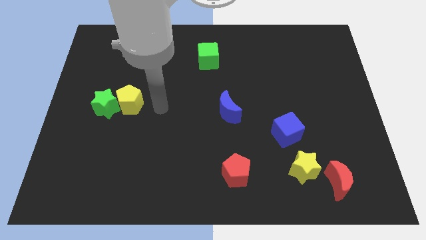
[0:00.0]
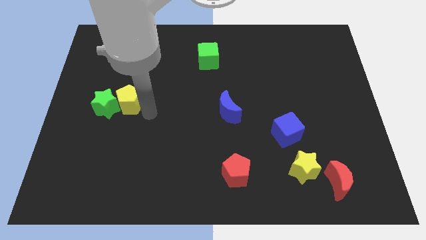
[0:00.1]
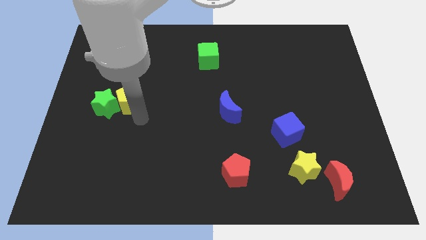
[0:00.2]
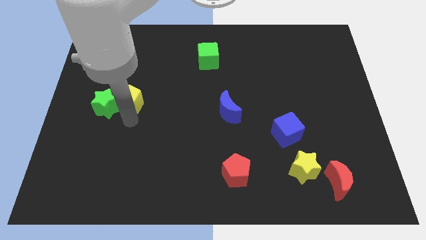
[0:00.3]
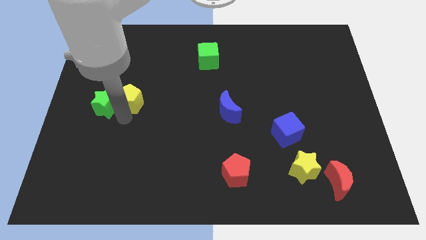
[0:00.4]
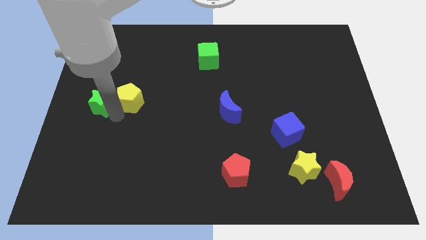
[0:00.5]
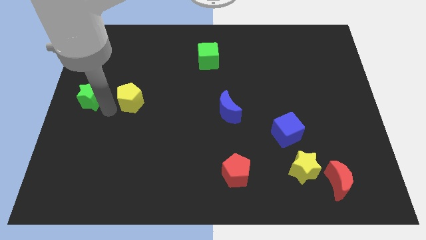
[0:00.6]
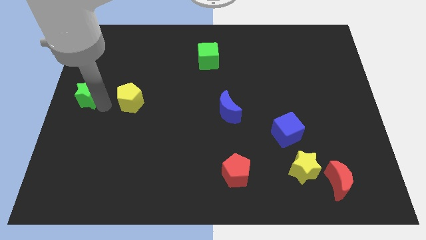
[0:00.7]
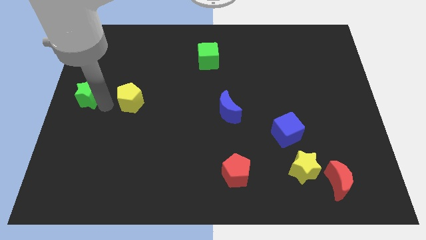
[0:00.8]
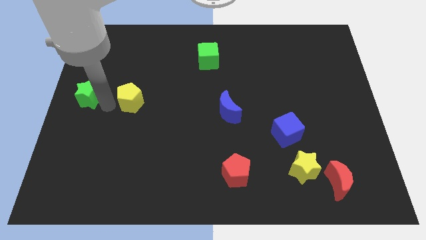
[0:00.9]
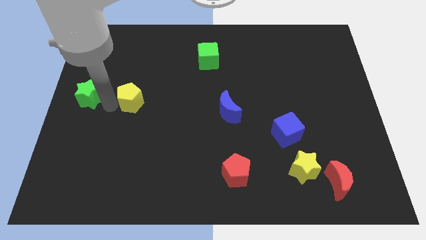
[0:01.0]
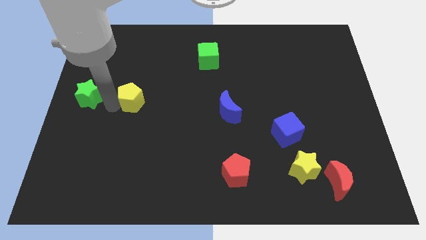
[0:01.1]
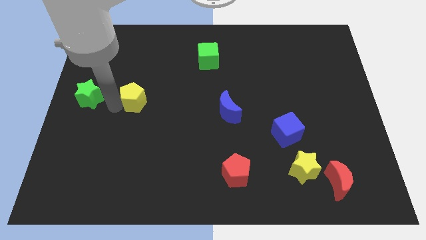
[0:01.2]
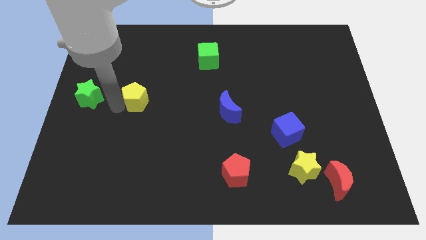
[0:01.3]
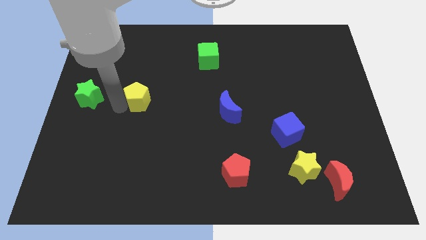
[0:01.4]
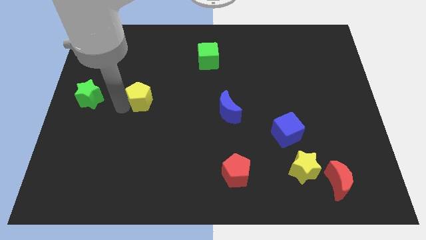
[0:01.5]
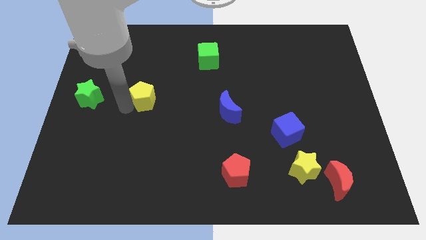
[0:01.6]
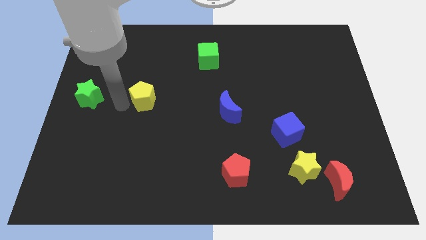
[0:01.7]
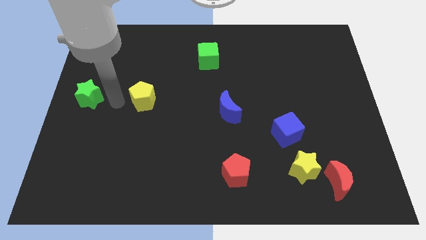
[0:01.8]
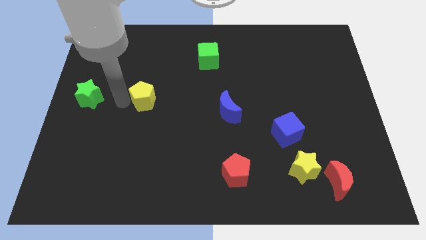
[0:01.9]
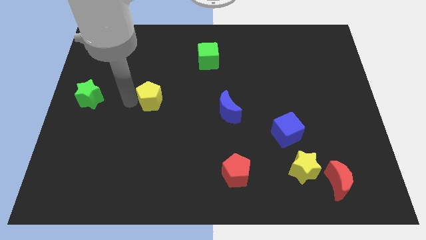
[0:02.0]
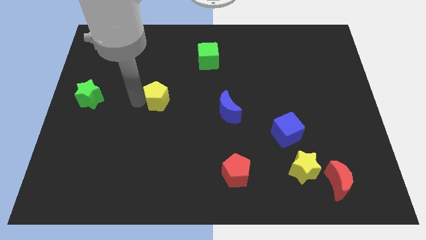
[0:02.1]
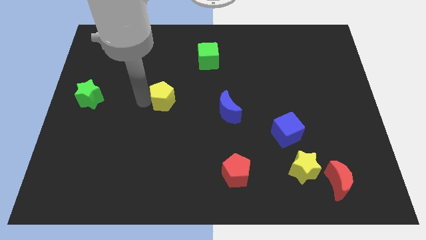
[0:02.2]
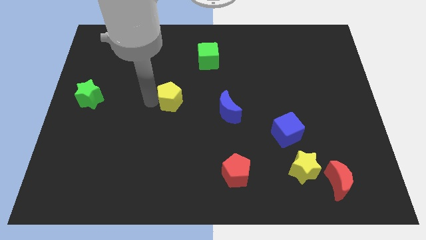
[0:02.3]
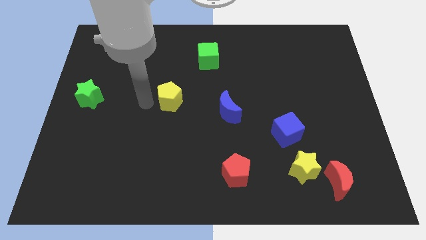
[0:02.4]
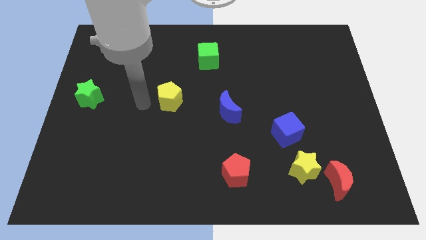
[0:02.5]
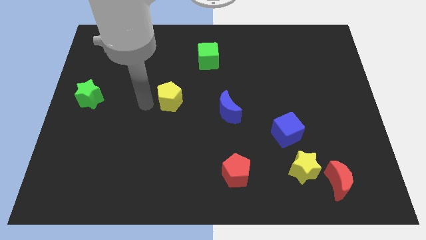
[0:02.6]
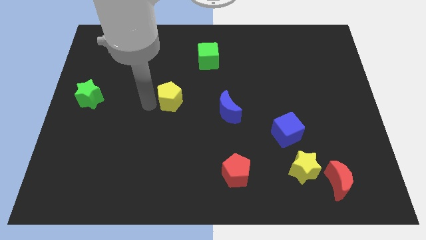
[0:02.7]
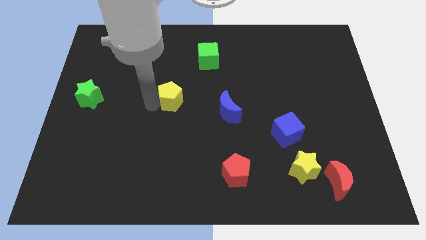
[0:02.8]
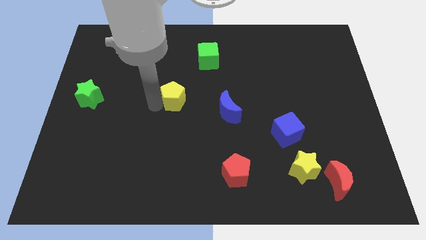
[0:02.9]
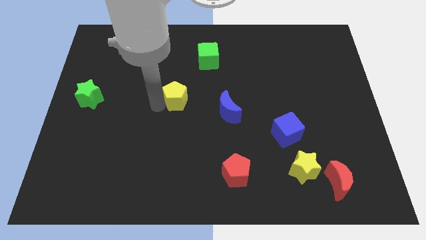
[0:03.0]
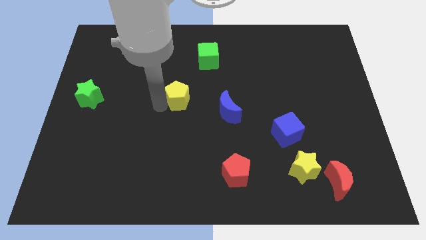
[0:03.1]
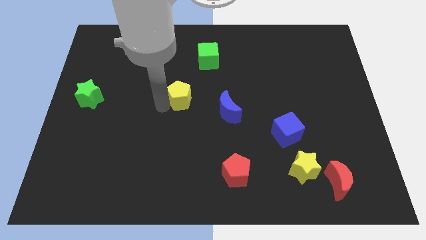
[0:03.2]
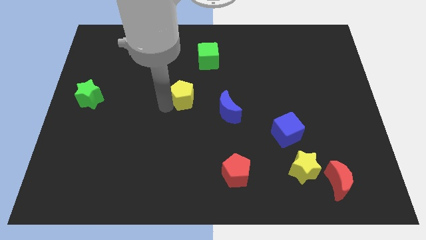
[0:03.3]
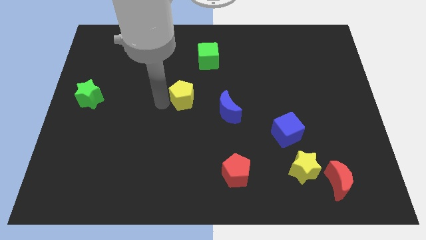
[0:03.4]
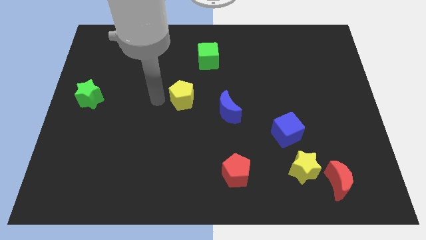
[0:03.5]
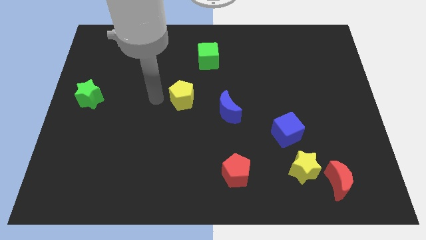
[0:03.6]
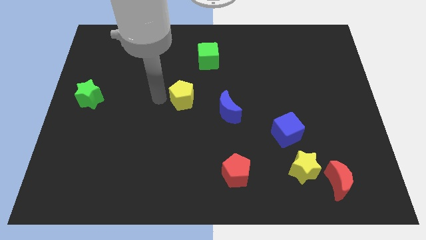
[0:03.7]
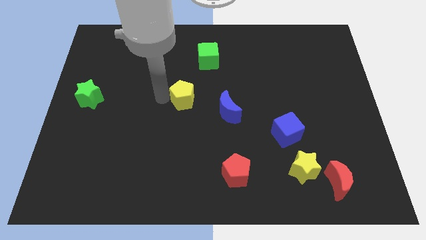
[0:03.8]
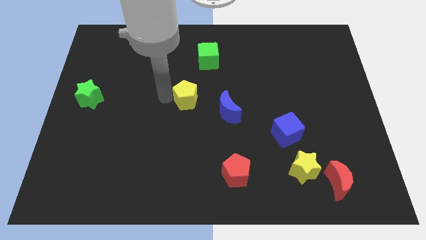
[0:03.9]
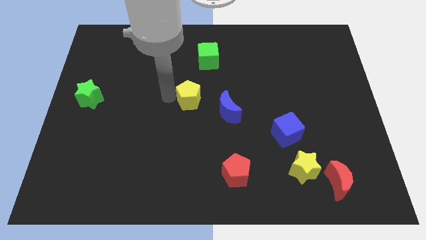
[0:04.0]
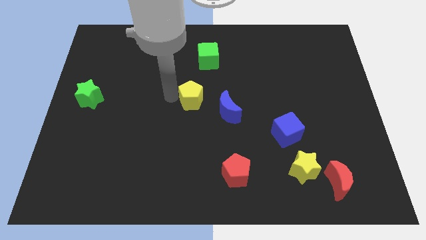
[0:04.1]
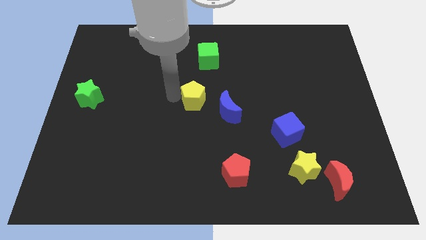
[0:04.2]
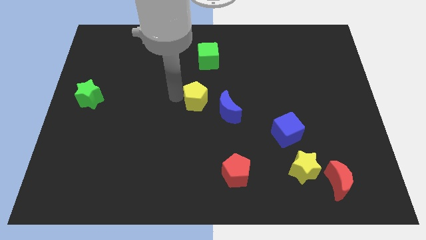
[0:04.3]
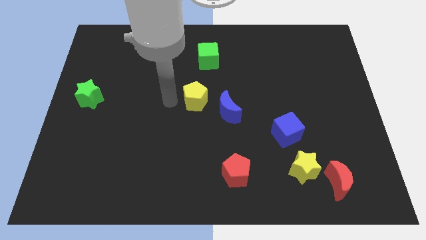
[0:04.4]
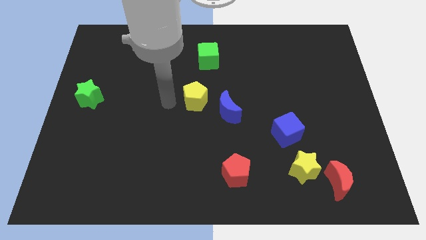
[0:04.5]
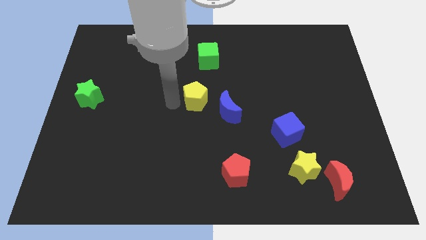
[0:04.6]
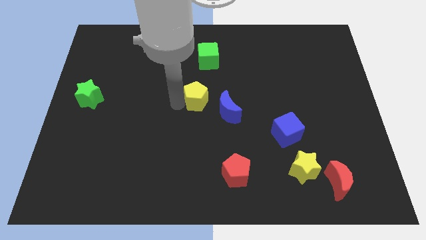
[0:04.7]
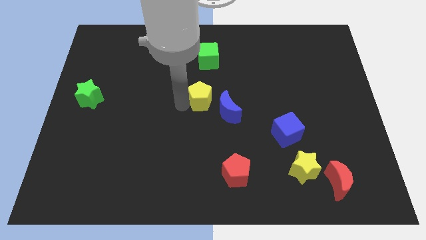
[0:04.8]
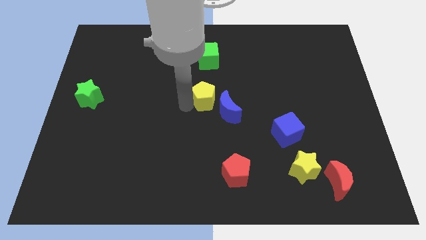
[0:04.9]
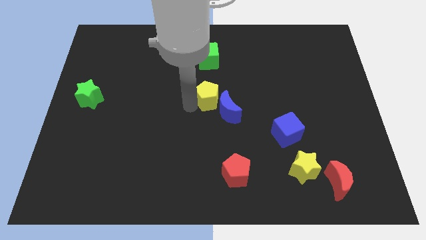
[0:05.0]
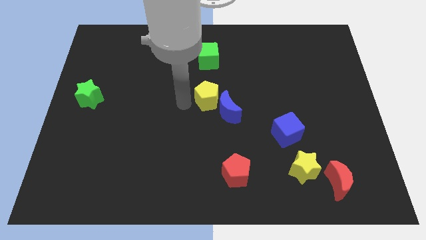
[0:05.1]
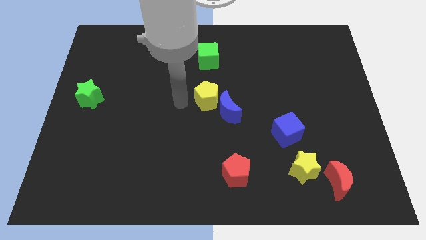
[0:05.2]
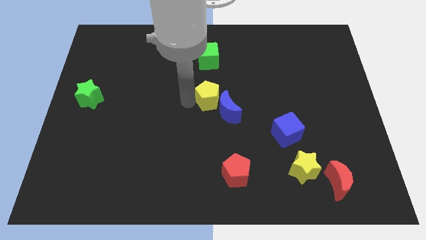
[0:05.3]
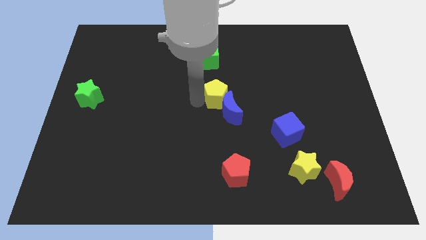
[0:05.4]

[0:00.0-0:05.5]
move the yellow pentagon to the right

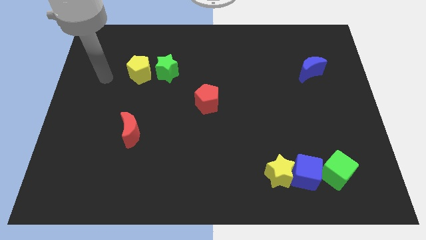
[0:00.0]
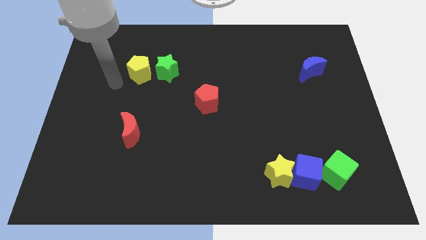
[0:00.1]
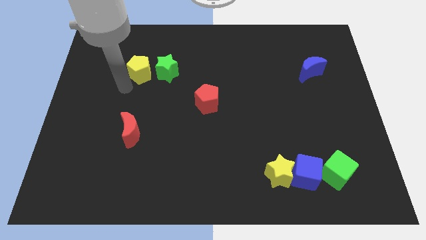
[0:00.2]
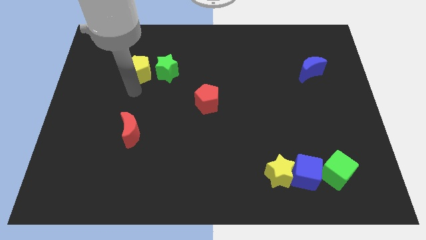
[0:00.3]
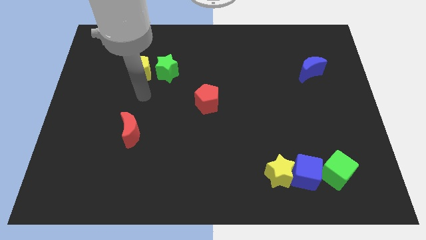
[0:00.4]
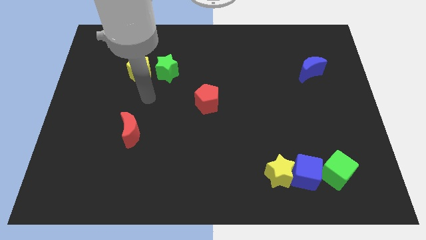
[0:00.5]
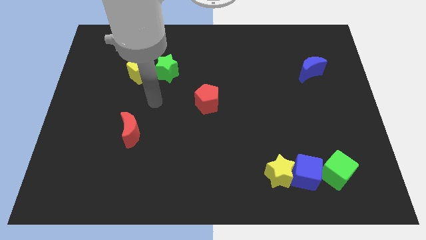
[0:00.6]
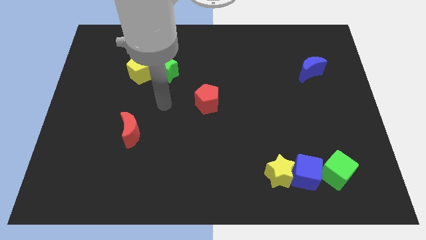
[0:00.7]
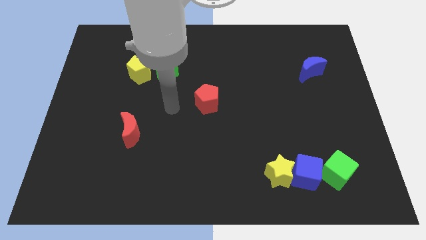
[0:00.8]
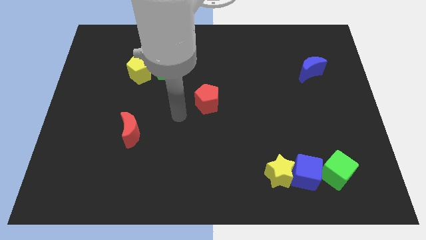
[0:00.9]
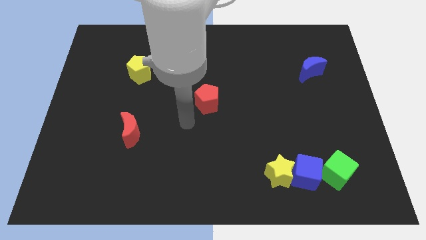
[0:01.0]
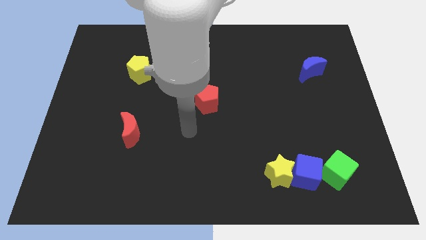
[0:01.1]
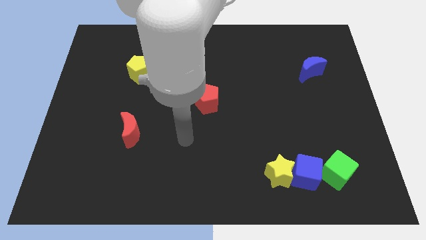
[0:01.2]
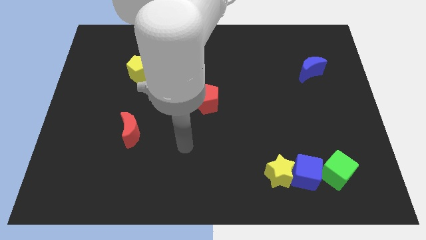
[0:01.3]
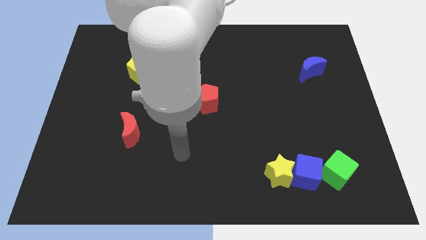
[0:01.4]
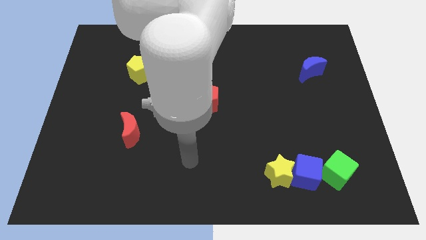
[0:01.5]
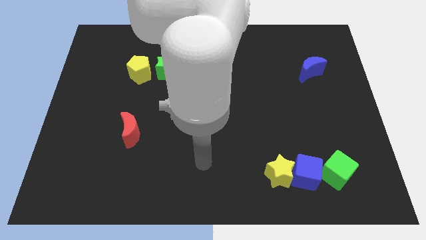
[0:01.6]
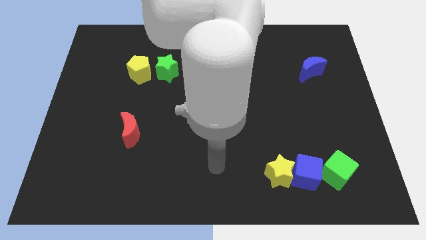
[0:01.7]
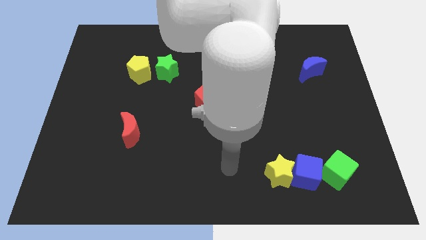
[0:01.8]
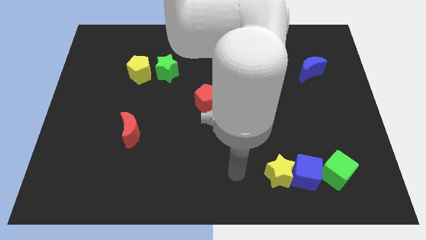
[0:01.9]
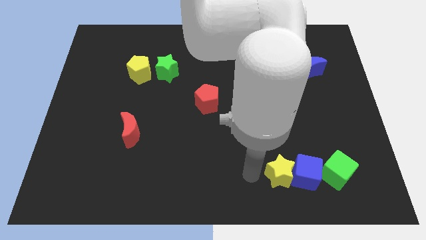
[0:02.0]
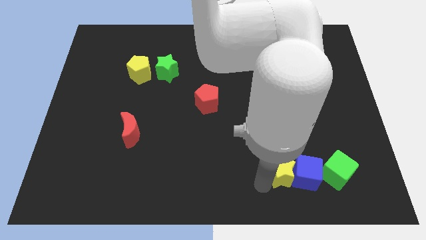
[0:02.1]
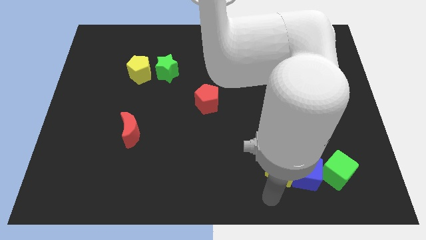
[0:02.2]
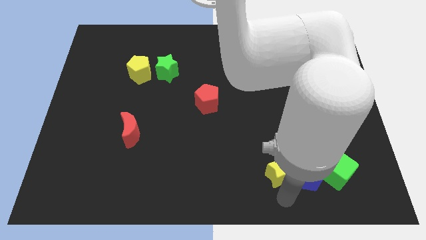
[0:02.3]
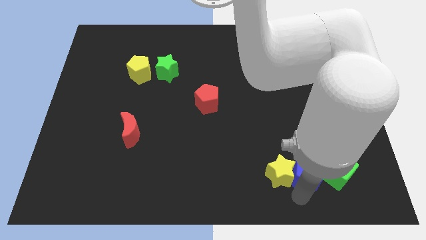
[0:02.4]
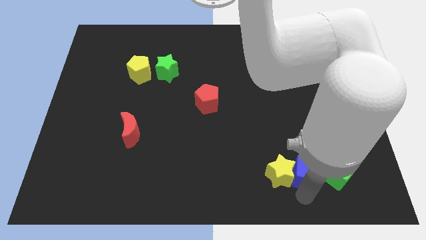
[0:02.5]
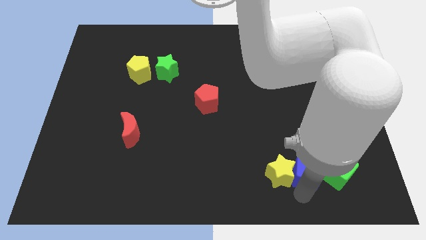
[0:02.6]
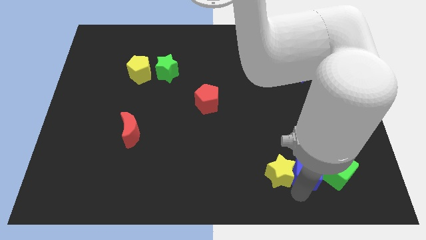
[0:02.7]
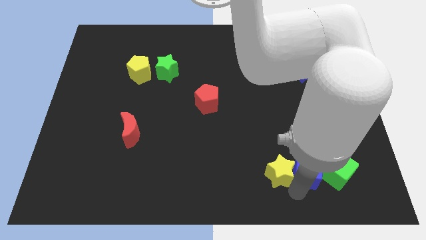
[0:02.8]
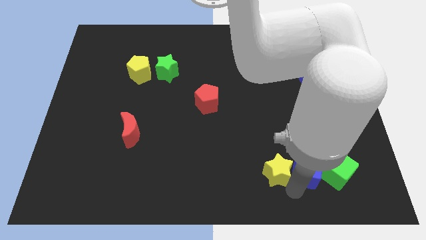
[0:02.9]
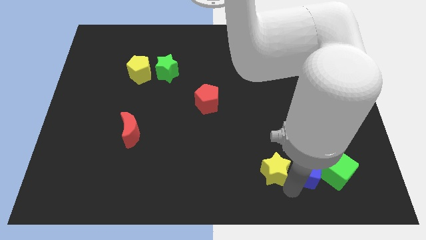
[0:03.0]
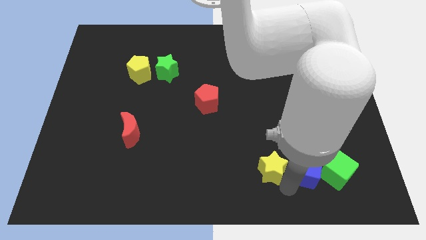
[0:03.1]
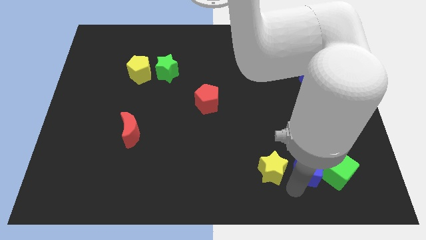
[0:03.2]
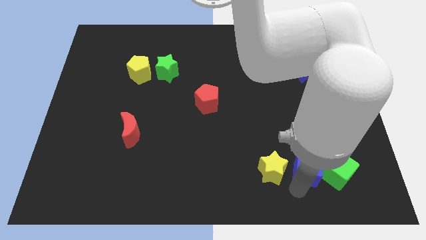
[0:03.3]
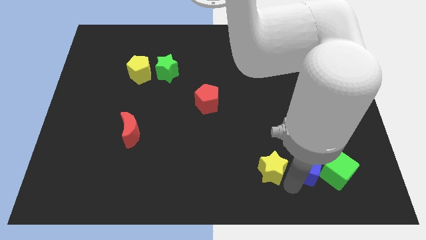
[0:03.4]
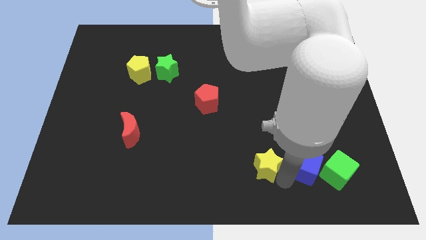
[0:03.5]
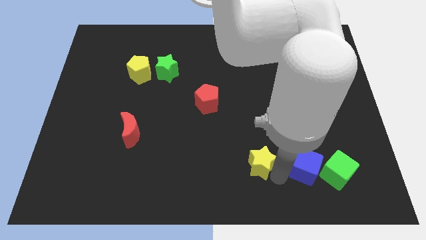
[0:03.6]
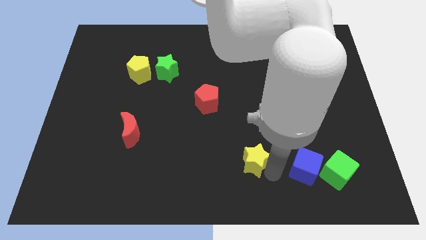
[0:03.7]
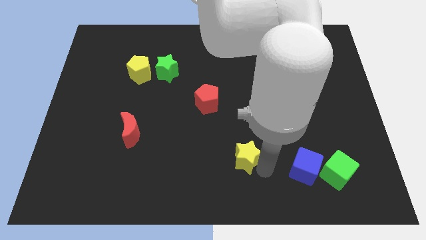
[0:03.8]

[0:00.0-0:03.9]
push the yellow star a little upwards and then to the left
